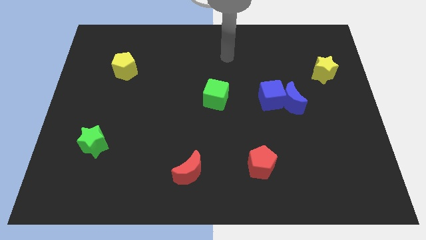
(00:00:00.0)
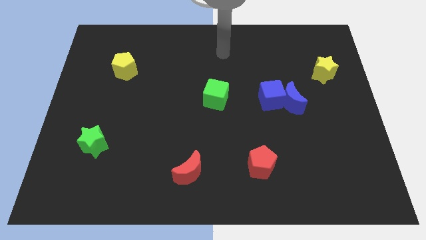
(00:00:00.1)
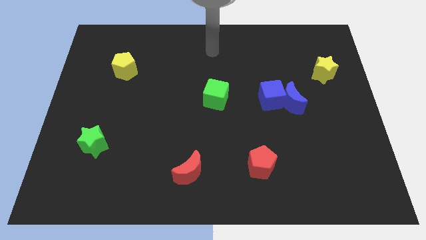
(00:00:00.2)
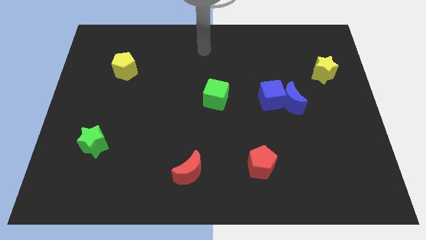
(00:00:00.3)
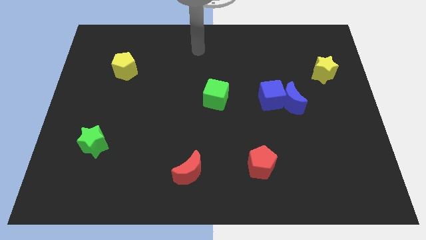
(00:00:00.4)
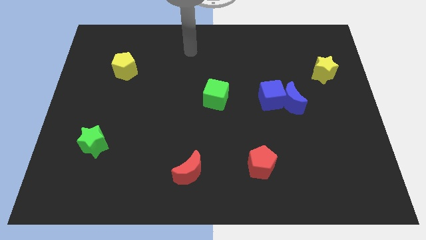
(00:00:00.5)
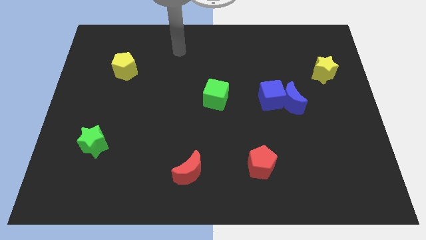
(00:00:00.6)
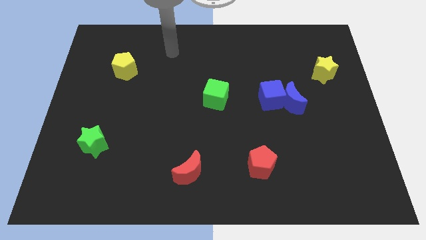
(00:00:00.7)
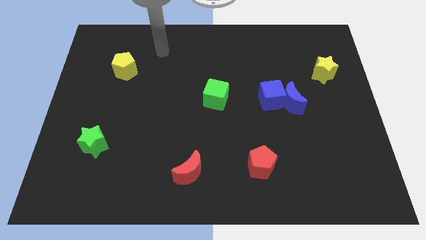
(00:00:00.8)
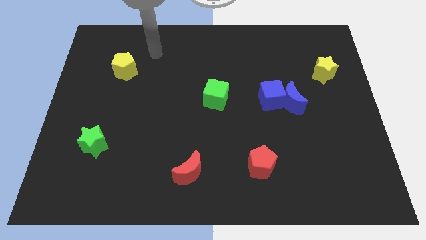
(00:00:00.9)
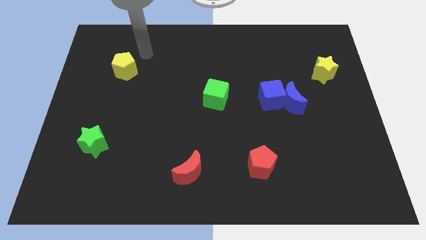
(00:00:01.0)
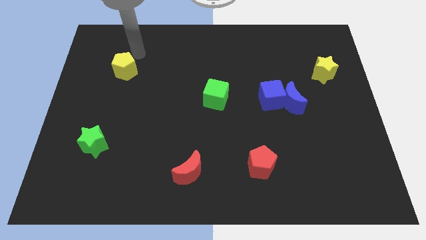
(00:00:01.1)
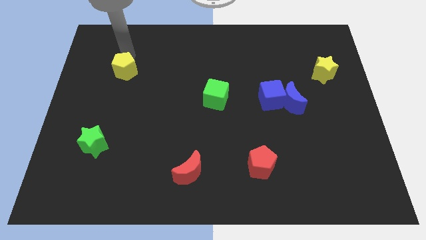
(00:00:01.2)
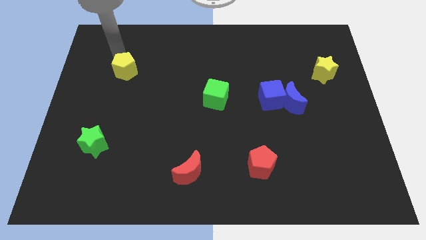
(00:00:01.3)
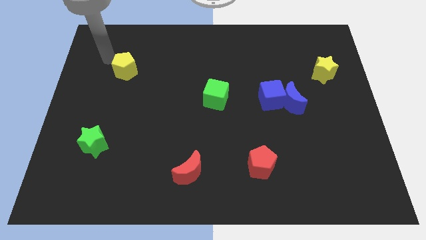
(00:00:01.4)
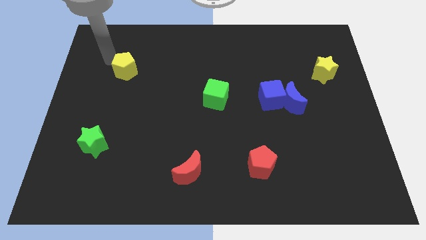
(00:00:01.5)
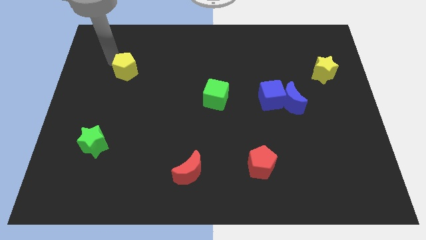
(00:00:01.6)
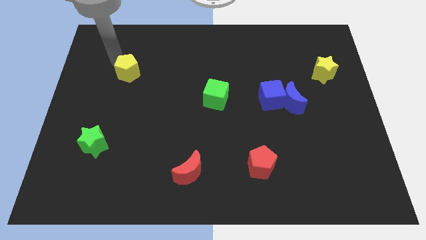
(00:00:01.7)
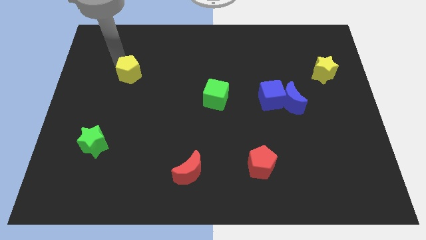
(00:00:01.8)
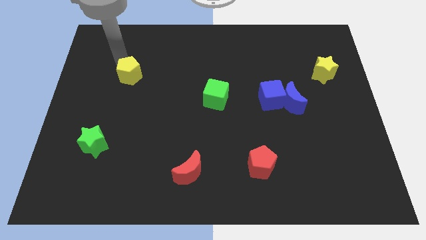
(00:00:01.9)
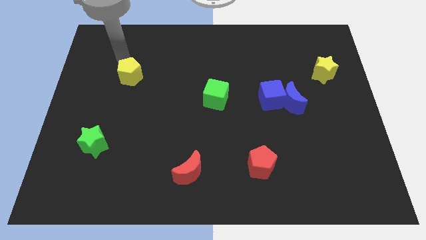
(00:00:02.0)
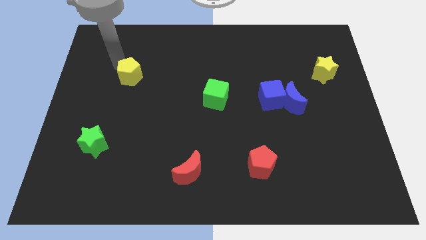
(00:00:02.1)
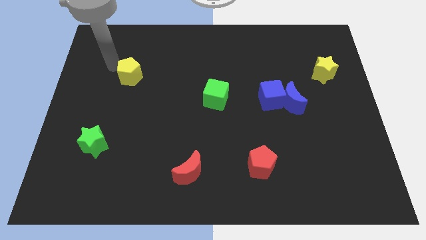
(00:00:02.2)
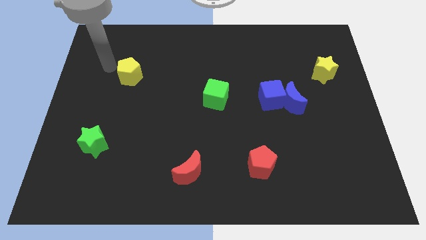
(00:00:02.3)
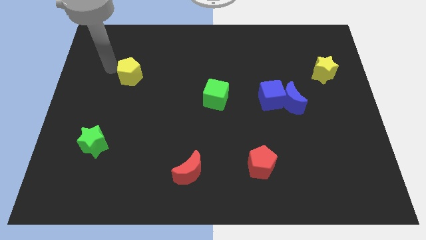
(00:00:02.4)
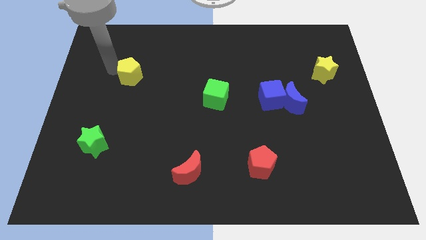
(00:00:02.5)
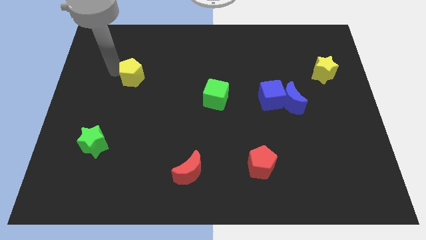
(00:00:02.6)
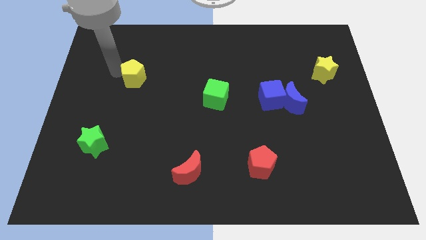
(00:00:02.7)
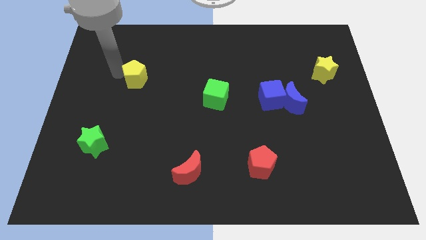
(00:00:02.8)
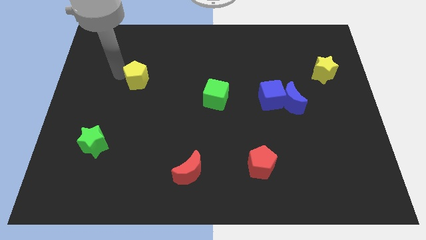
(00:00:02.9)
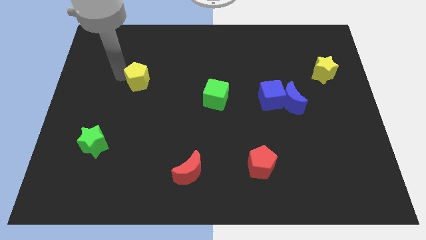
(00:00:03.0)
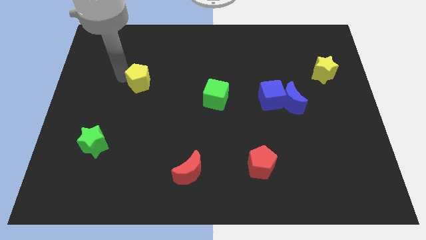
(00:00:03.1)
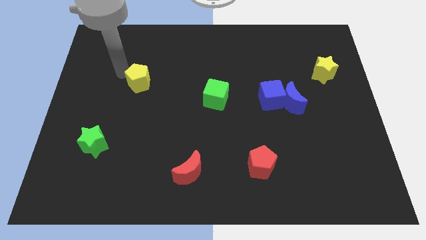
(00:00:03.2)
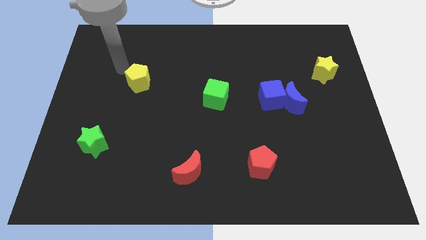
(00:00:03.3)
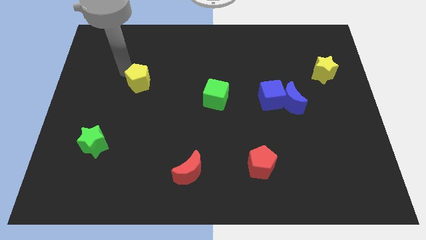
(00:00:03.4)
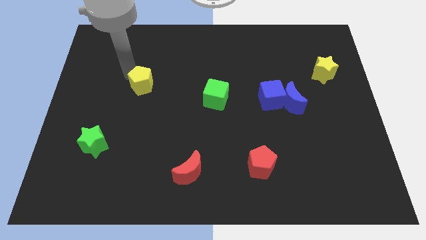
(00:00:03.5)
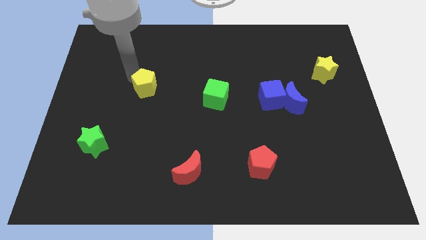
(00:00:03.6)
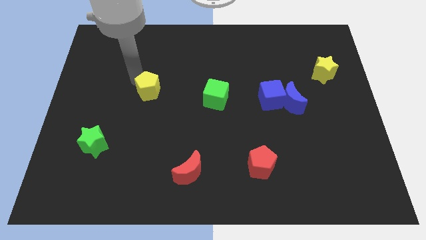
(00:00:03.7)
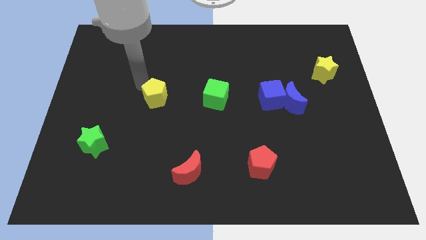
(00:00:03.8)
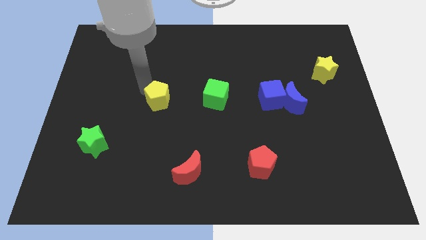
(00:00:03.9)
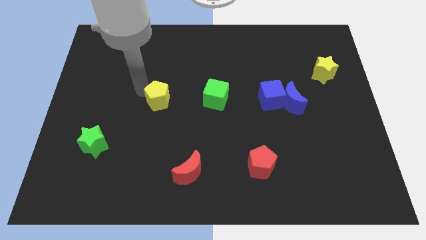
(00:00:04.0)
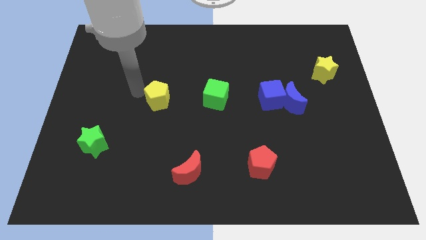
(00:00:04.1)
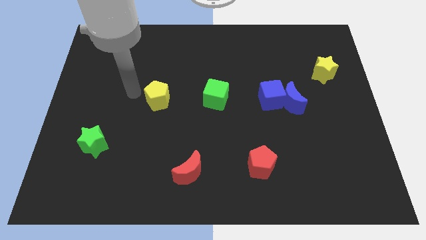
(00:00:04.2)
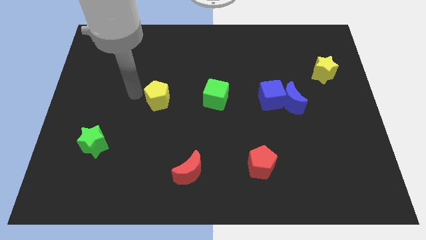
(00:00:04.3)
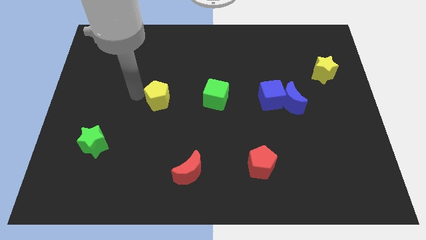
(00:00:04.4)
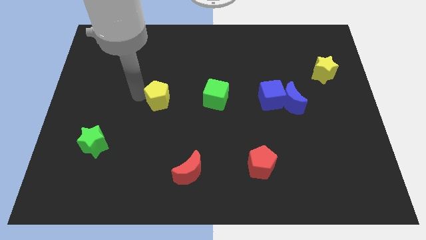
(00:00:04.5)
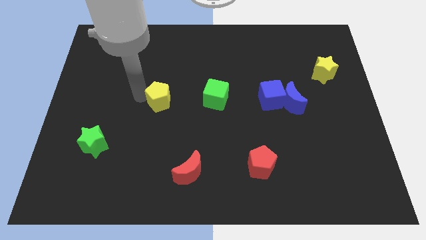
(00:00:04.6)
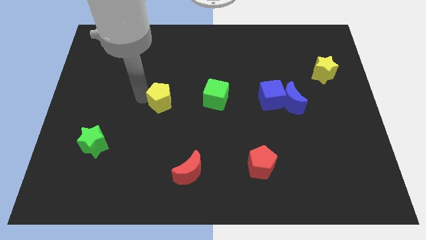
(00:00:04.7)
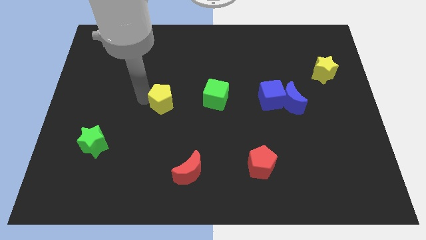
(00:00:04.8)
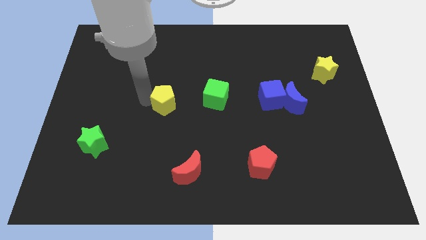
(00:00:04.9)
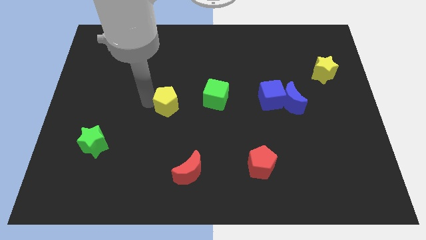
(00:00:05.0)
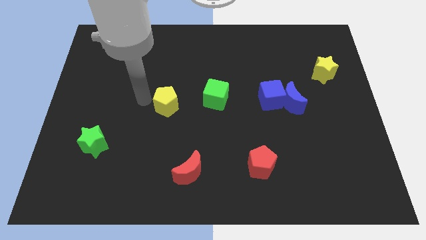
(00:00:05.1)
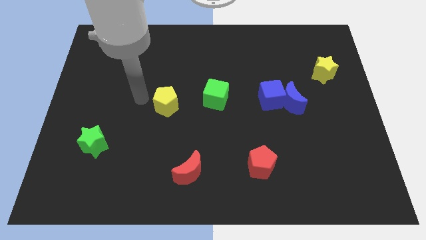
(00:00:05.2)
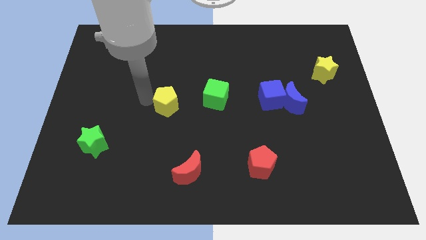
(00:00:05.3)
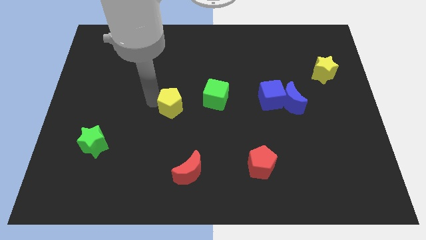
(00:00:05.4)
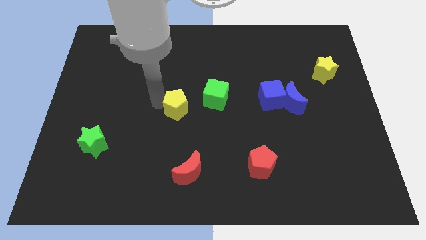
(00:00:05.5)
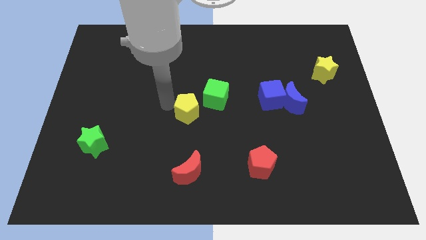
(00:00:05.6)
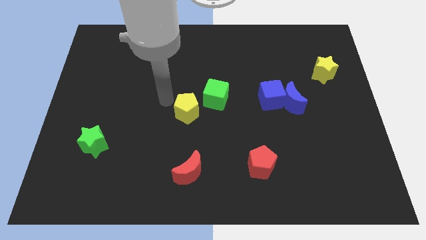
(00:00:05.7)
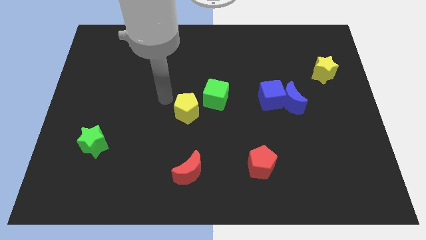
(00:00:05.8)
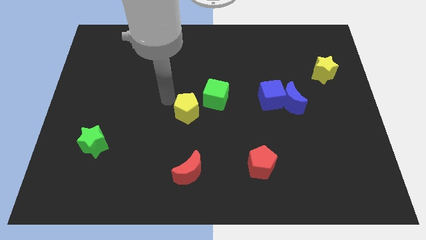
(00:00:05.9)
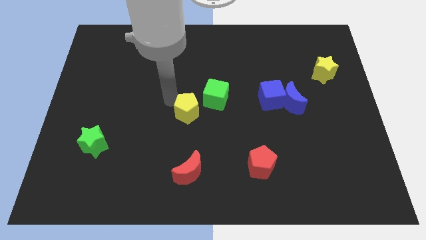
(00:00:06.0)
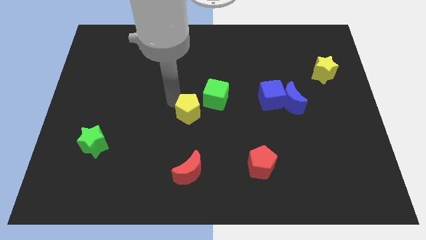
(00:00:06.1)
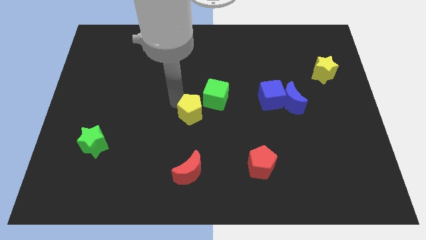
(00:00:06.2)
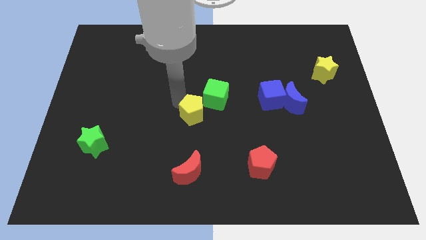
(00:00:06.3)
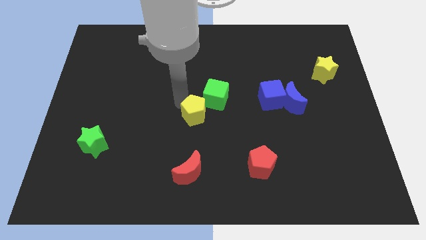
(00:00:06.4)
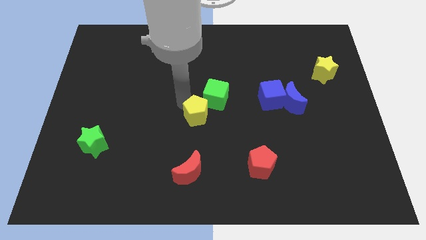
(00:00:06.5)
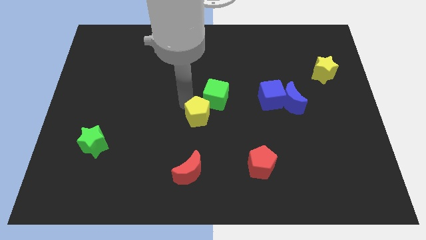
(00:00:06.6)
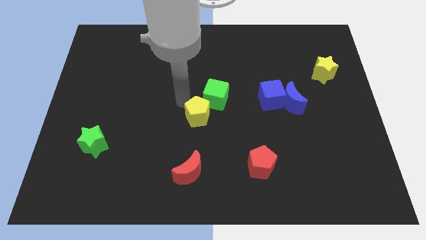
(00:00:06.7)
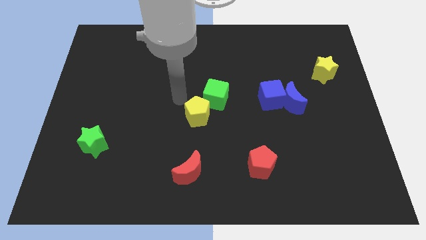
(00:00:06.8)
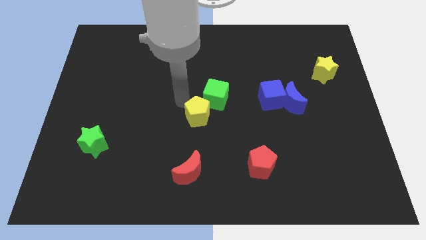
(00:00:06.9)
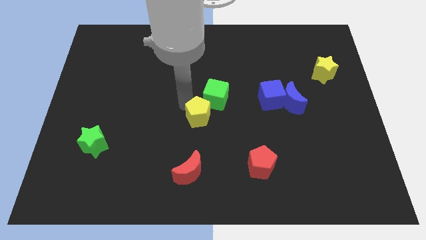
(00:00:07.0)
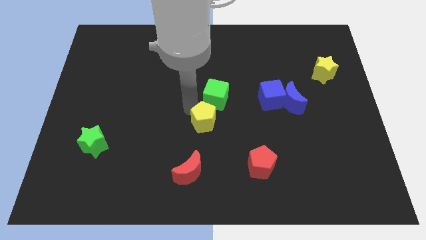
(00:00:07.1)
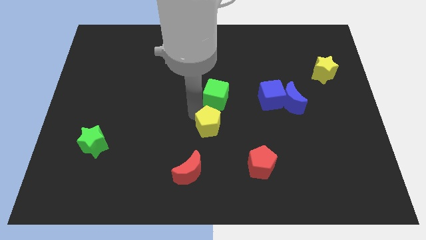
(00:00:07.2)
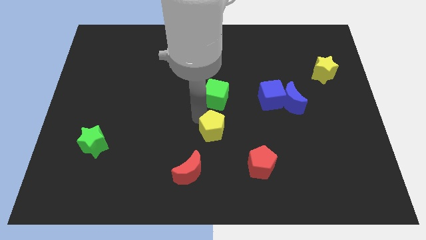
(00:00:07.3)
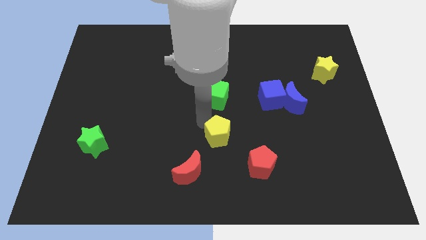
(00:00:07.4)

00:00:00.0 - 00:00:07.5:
slide the yellow pentagon to the top left of the red pentagon
